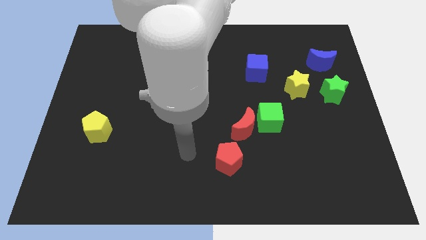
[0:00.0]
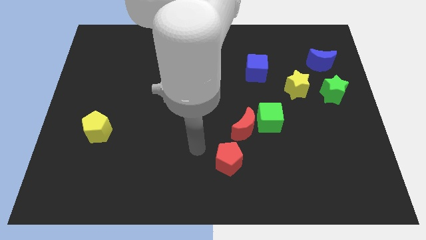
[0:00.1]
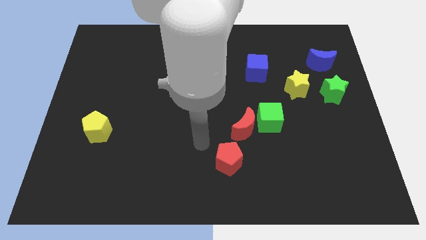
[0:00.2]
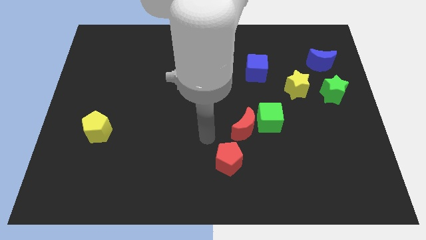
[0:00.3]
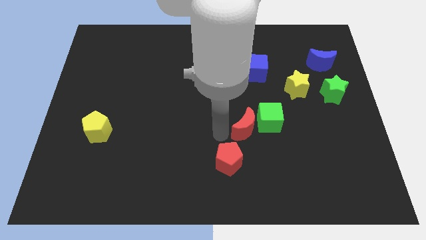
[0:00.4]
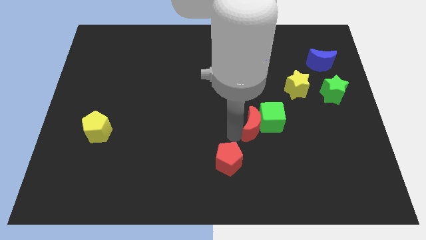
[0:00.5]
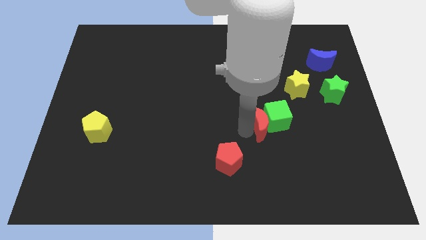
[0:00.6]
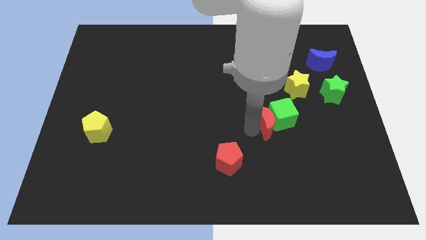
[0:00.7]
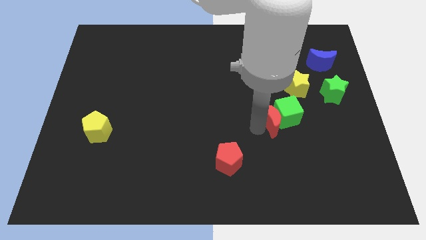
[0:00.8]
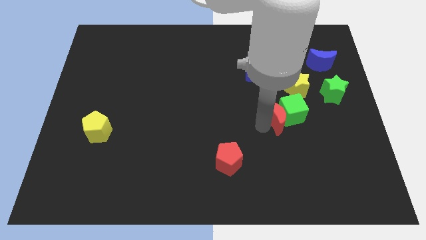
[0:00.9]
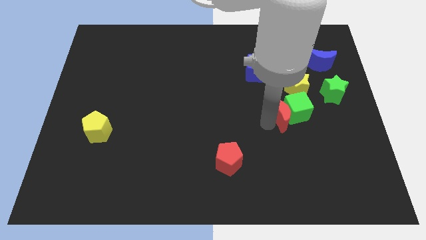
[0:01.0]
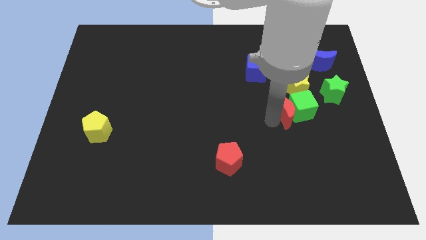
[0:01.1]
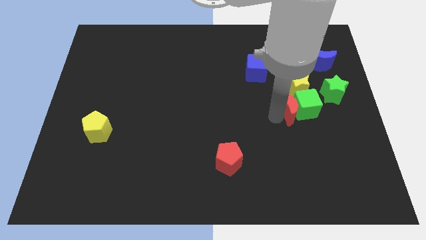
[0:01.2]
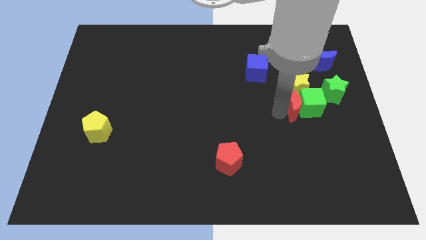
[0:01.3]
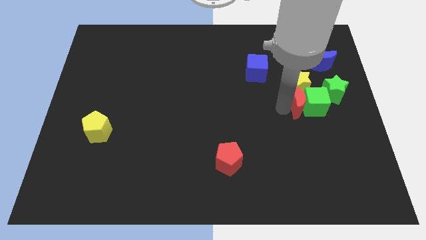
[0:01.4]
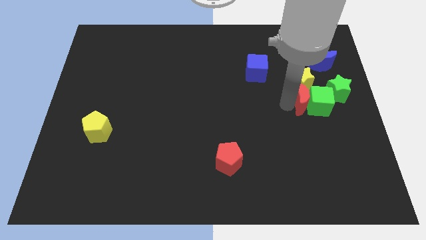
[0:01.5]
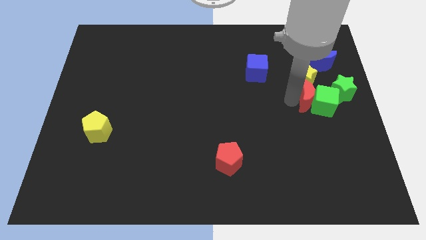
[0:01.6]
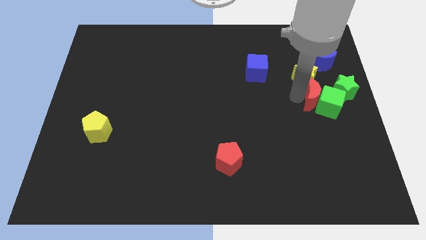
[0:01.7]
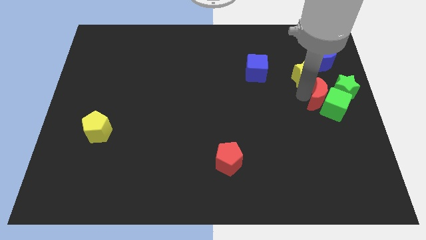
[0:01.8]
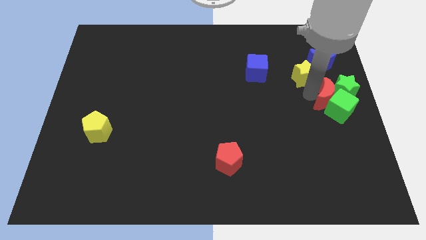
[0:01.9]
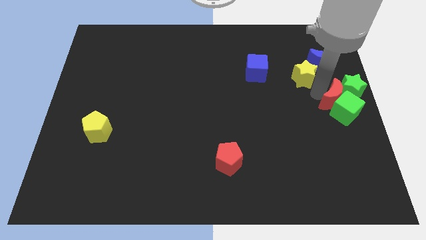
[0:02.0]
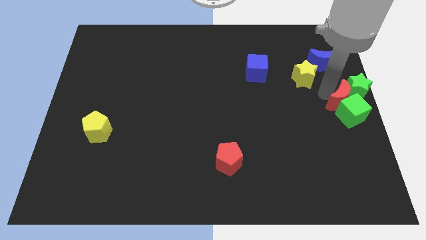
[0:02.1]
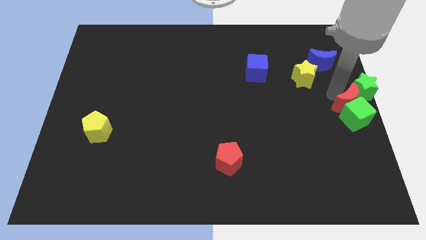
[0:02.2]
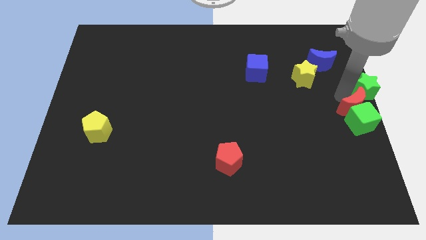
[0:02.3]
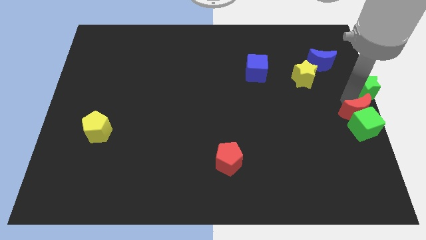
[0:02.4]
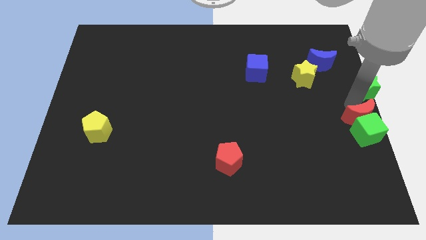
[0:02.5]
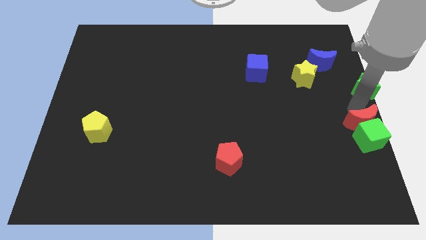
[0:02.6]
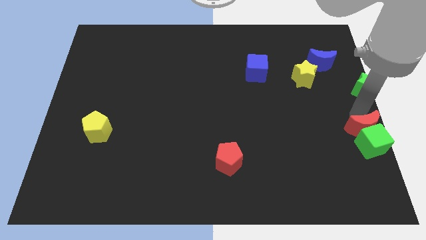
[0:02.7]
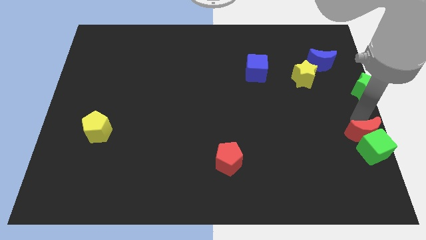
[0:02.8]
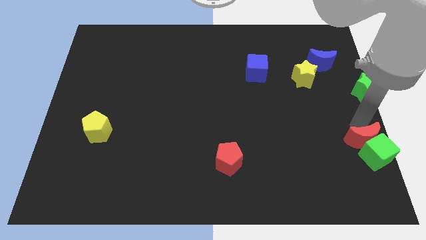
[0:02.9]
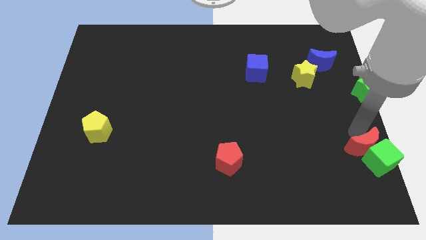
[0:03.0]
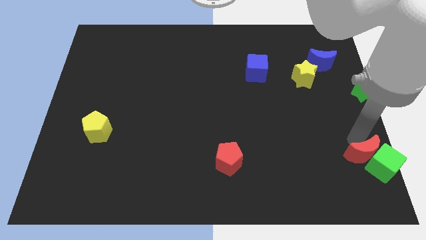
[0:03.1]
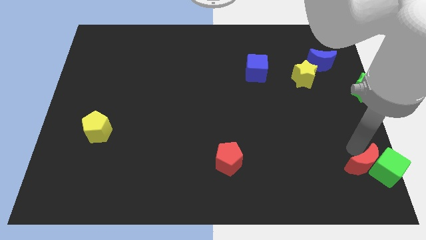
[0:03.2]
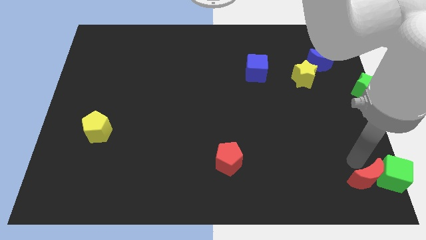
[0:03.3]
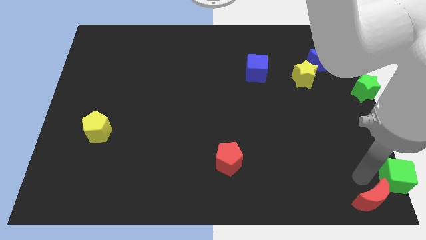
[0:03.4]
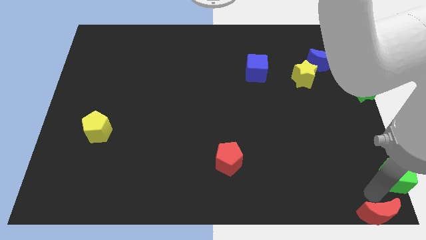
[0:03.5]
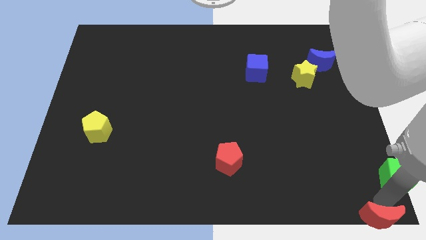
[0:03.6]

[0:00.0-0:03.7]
move the green cube away from the red moon

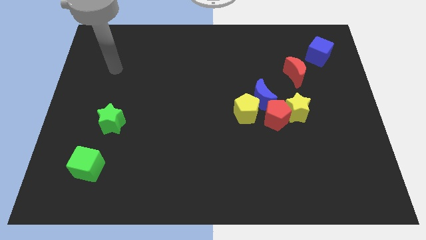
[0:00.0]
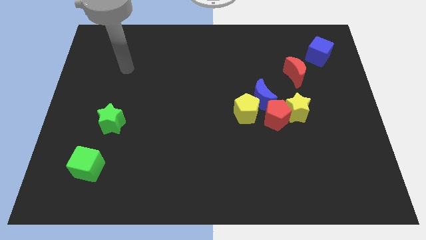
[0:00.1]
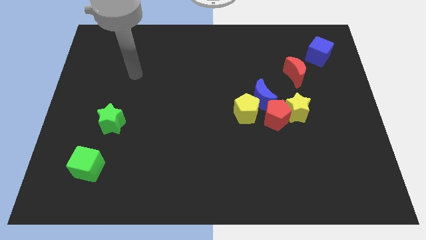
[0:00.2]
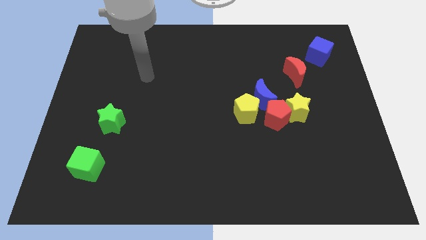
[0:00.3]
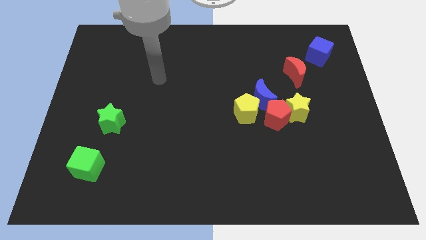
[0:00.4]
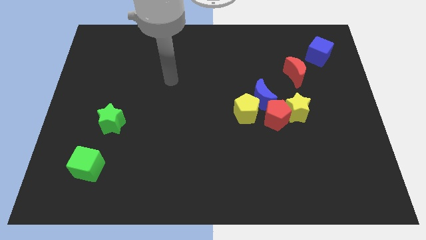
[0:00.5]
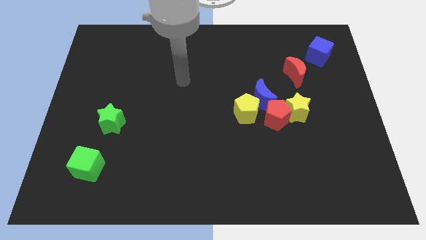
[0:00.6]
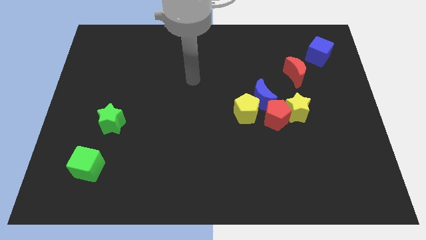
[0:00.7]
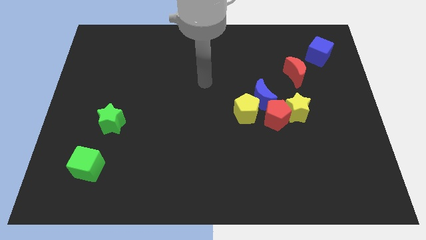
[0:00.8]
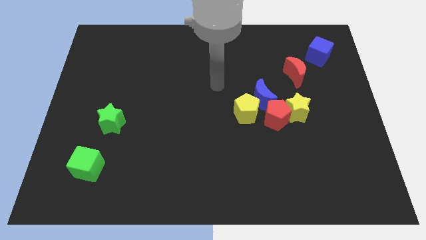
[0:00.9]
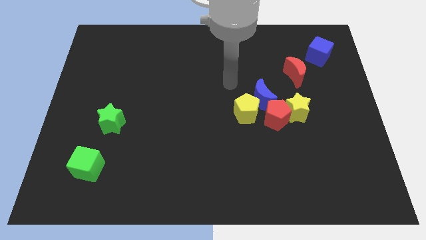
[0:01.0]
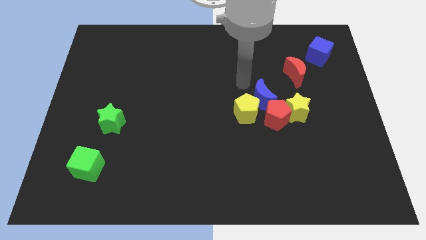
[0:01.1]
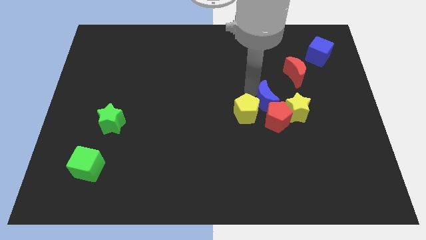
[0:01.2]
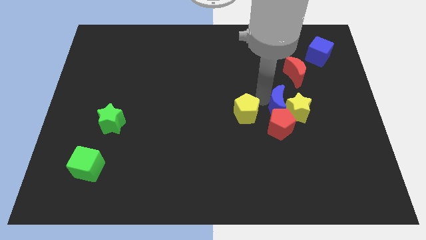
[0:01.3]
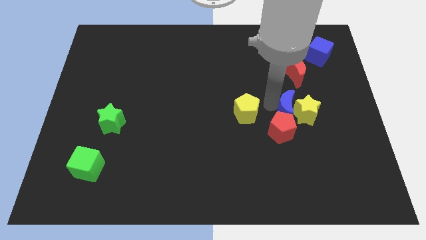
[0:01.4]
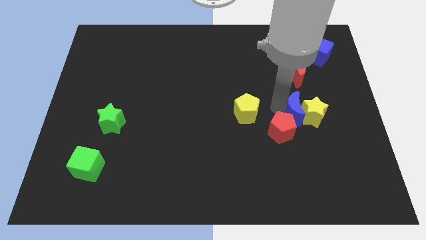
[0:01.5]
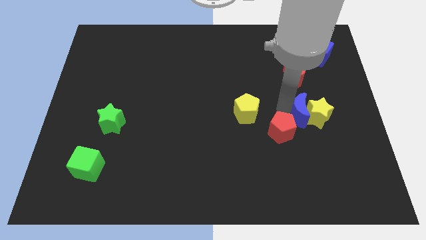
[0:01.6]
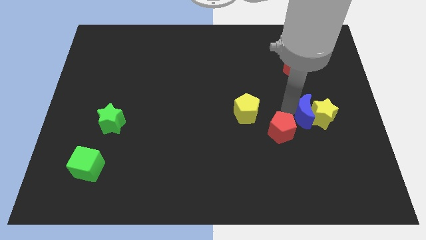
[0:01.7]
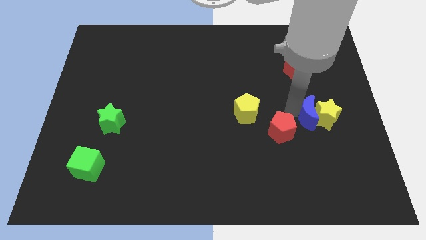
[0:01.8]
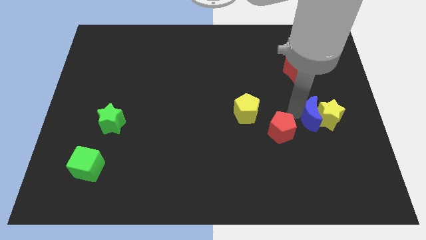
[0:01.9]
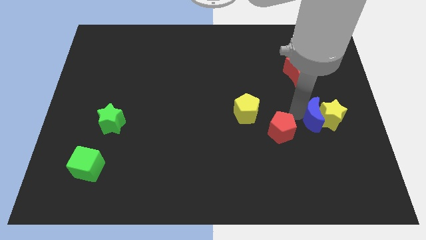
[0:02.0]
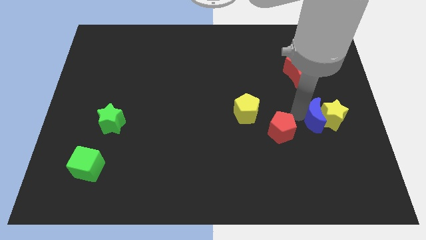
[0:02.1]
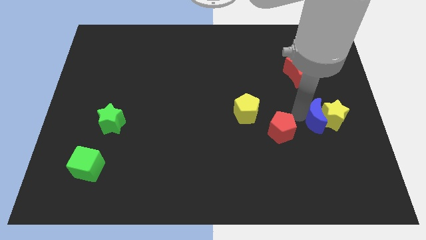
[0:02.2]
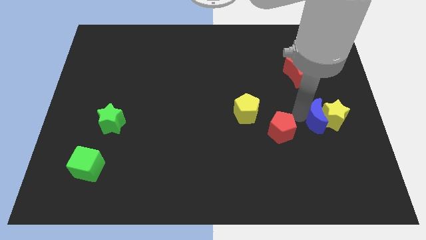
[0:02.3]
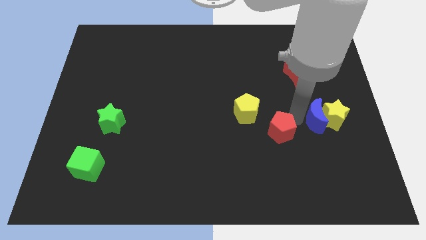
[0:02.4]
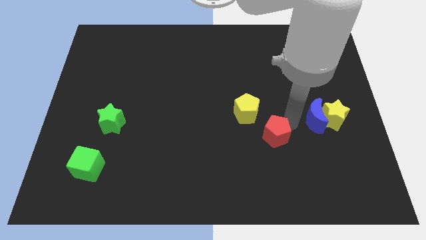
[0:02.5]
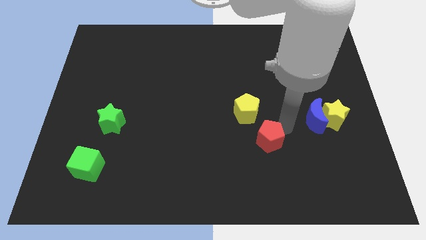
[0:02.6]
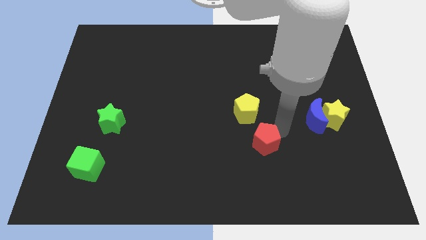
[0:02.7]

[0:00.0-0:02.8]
separate the red pentagon from the group

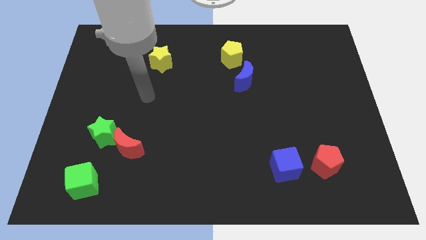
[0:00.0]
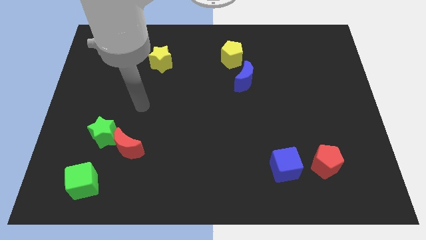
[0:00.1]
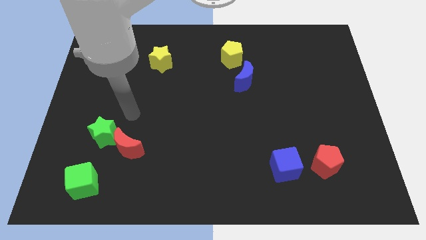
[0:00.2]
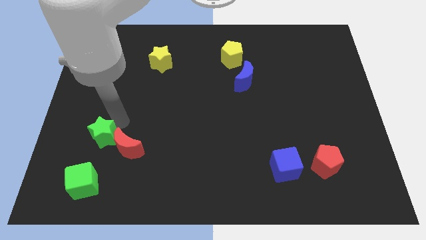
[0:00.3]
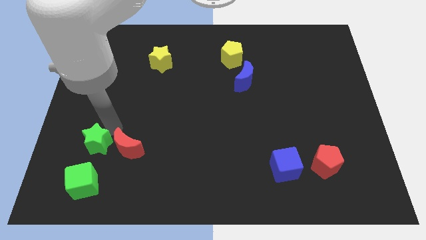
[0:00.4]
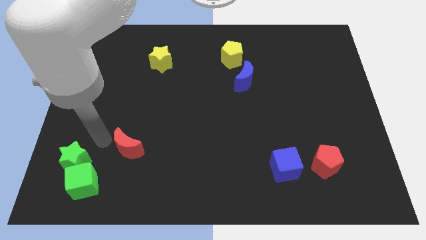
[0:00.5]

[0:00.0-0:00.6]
separate the red moon from the green star

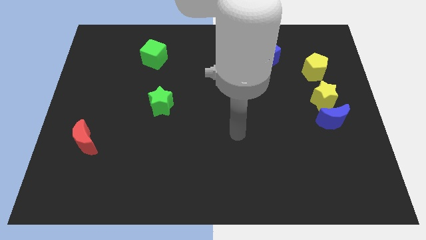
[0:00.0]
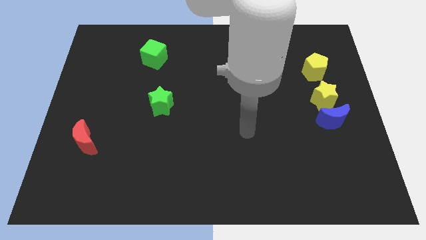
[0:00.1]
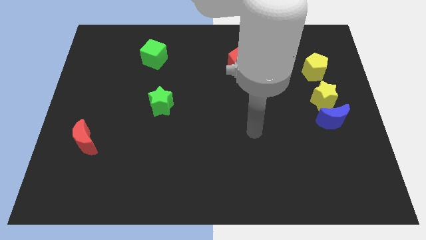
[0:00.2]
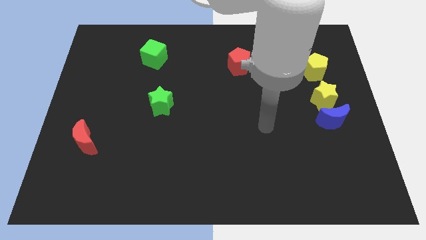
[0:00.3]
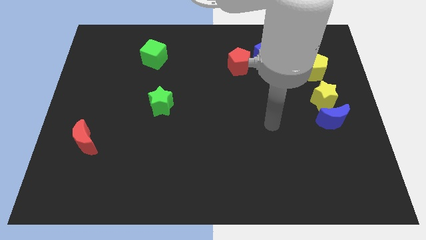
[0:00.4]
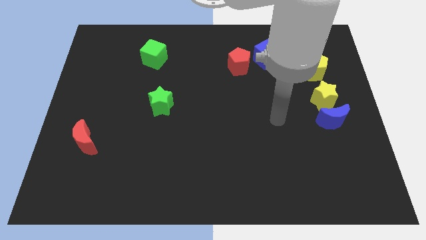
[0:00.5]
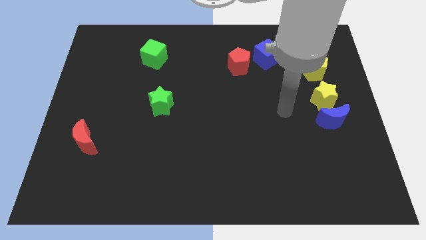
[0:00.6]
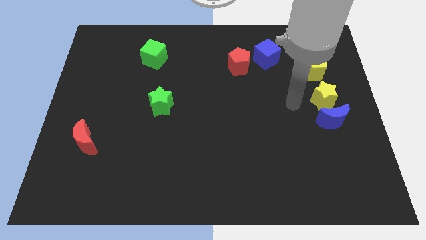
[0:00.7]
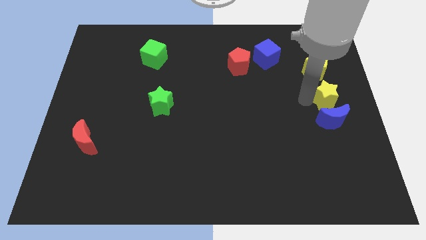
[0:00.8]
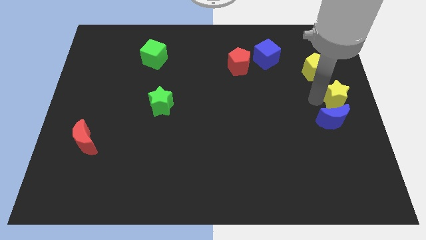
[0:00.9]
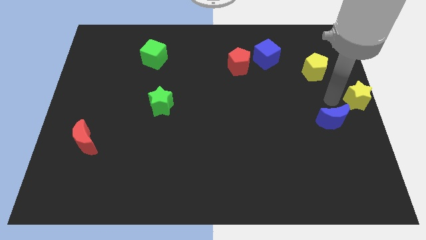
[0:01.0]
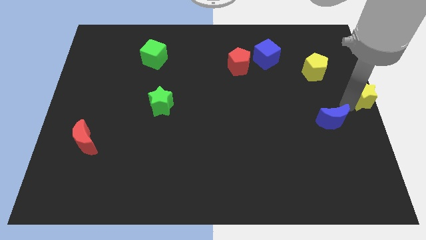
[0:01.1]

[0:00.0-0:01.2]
move the blue moon away from the yellow star

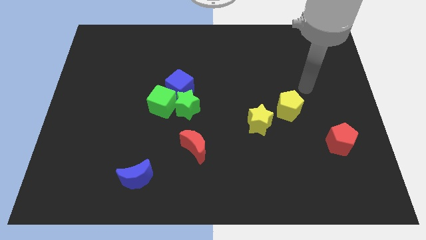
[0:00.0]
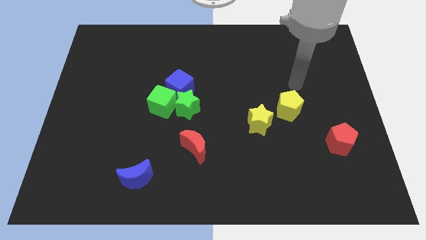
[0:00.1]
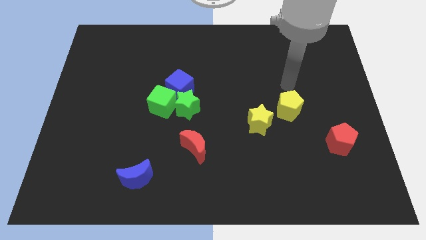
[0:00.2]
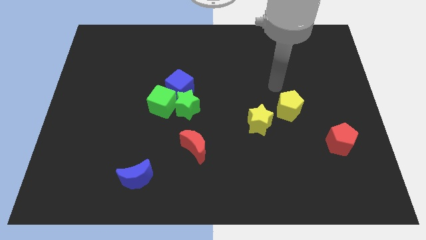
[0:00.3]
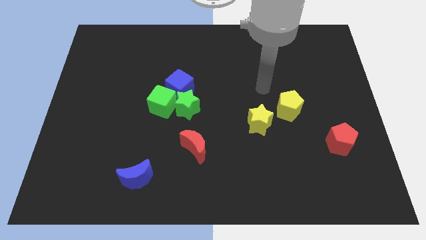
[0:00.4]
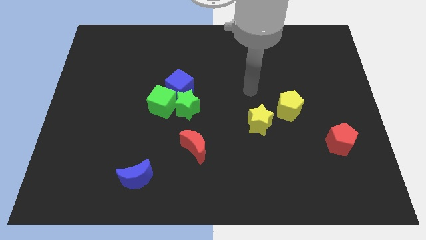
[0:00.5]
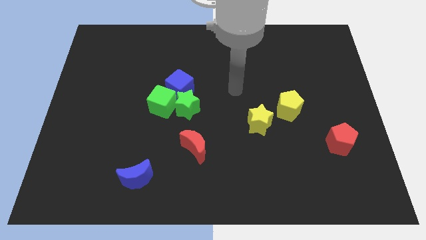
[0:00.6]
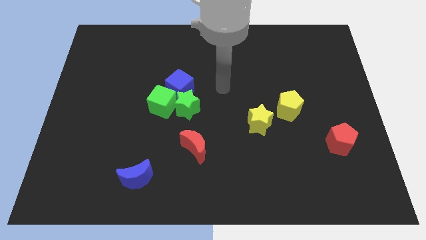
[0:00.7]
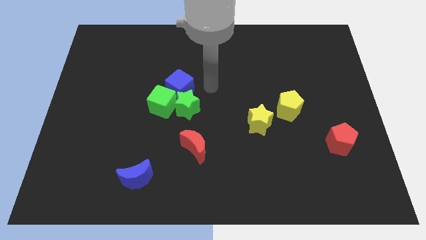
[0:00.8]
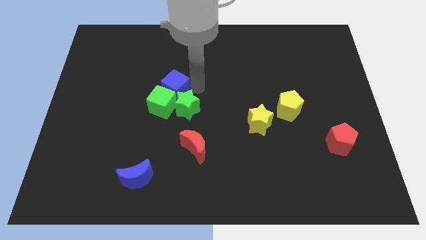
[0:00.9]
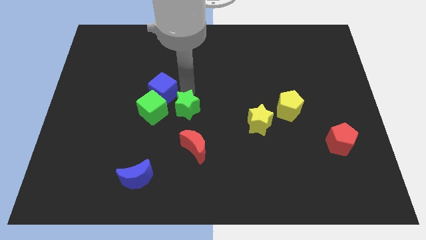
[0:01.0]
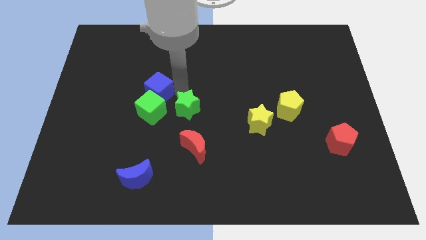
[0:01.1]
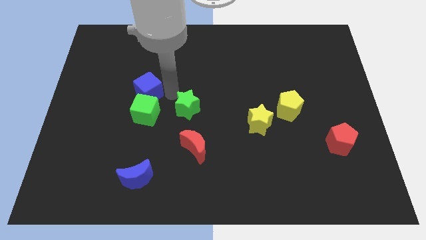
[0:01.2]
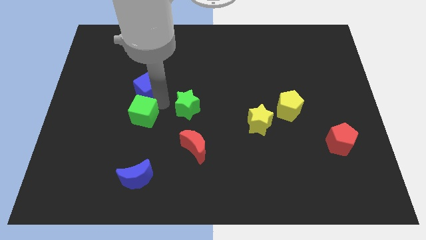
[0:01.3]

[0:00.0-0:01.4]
separate the green star from the green cube and blue cube
